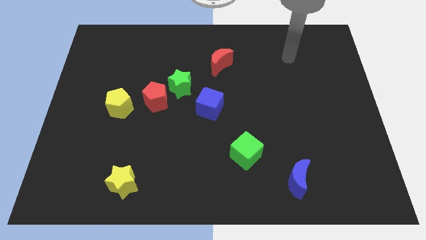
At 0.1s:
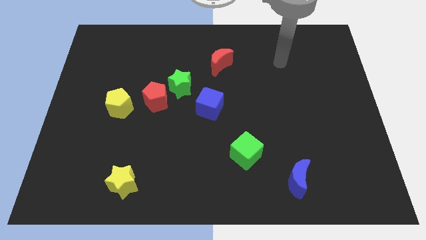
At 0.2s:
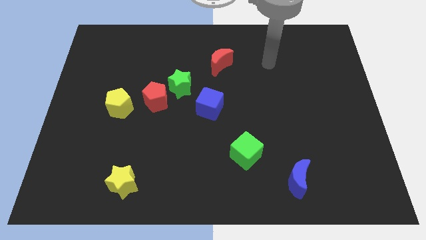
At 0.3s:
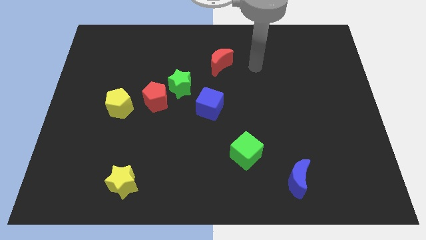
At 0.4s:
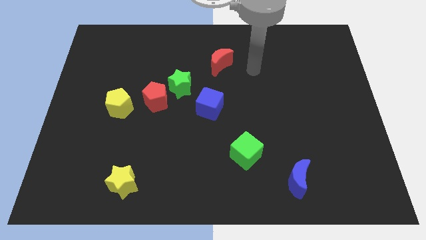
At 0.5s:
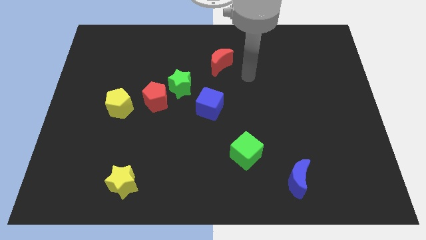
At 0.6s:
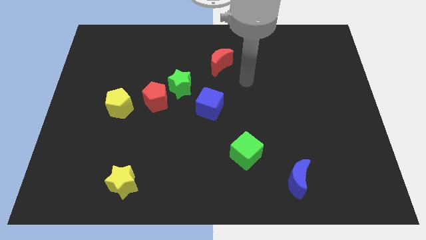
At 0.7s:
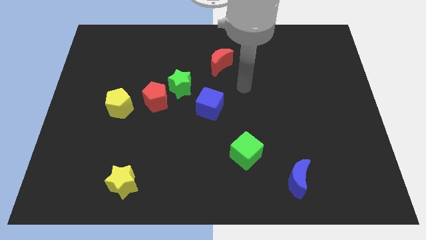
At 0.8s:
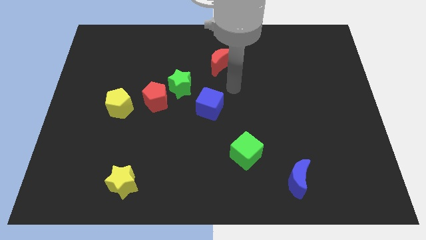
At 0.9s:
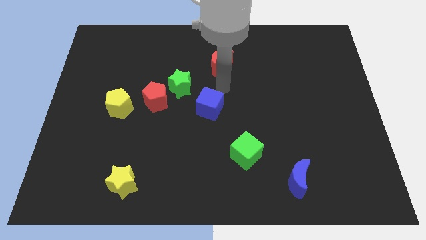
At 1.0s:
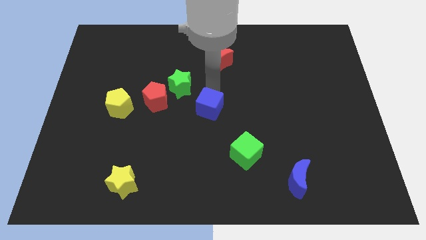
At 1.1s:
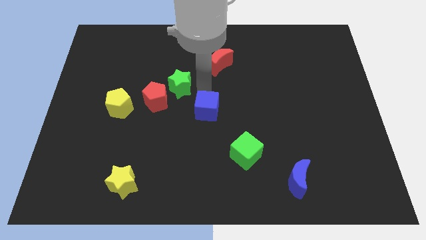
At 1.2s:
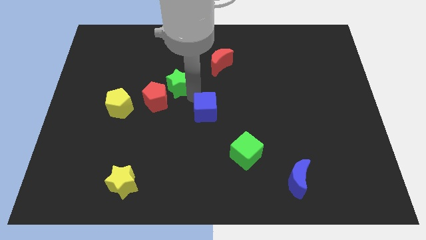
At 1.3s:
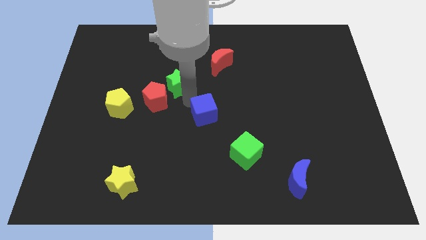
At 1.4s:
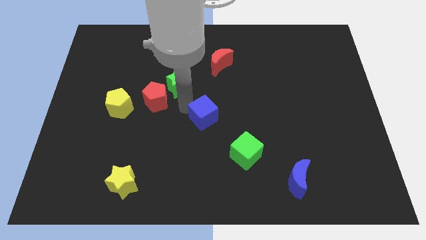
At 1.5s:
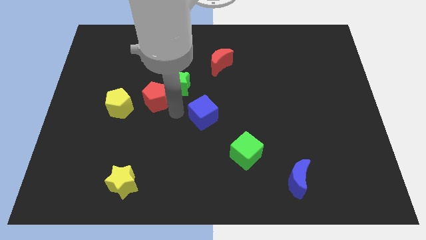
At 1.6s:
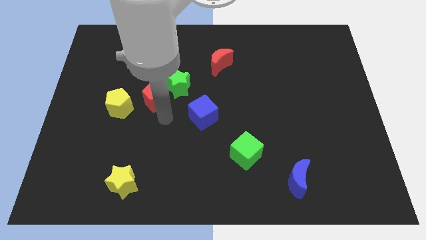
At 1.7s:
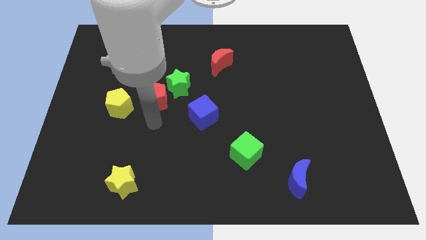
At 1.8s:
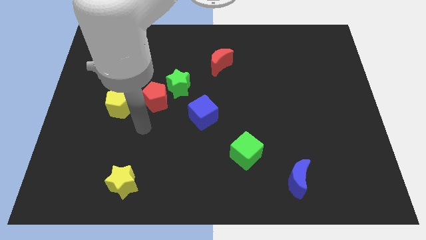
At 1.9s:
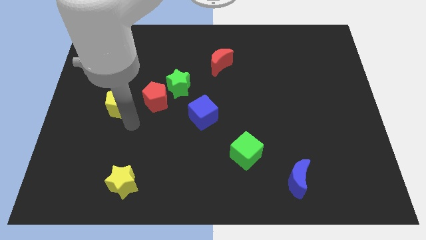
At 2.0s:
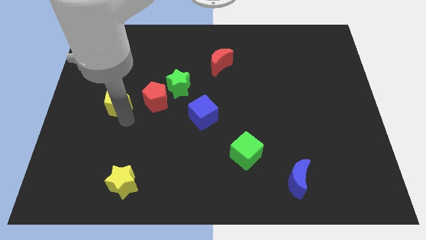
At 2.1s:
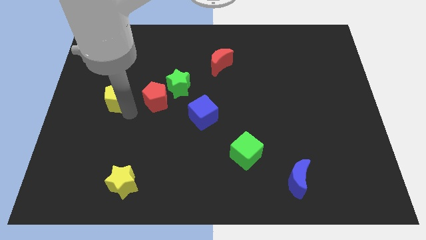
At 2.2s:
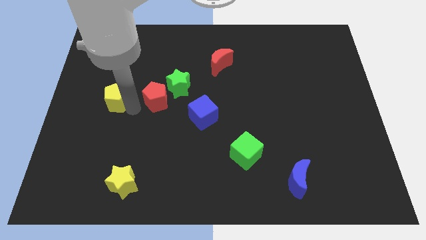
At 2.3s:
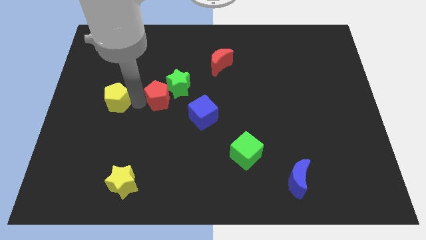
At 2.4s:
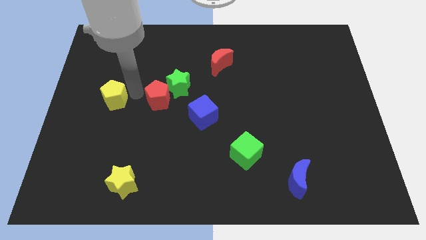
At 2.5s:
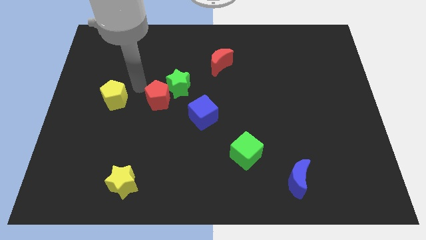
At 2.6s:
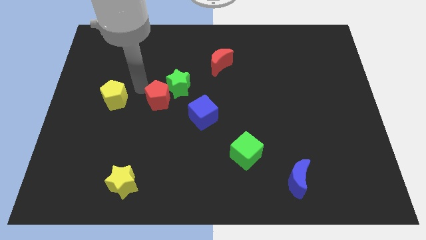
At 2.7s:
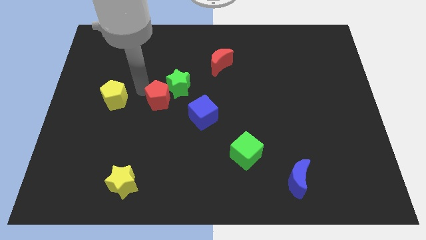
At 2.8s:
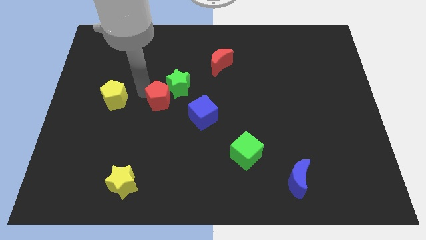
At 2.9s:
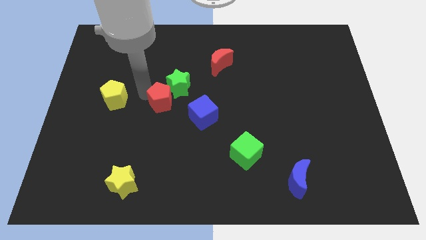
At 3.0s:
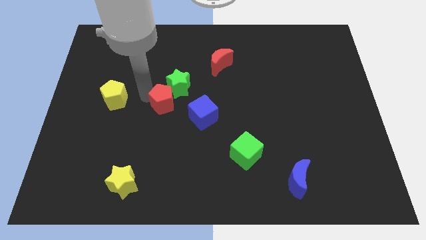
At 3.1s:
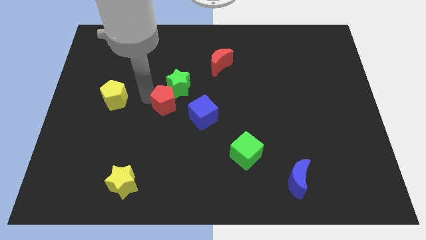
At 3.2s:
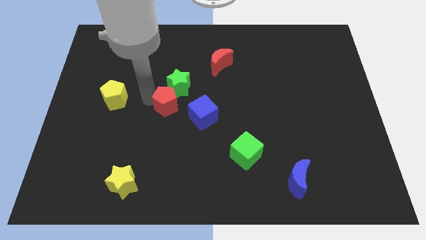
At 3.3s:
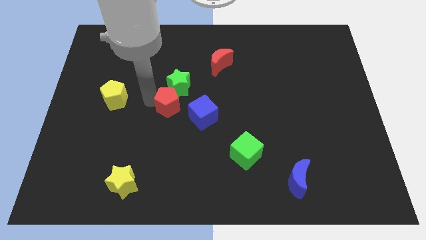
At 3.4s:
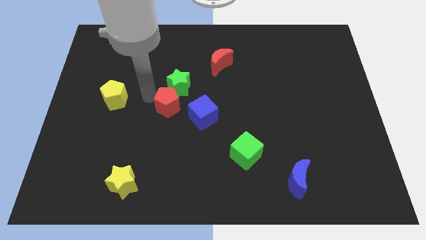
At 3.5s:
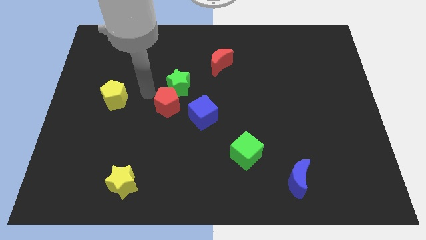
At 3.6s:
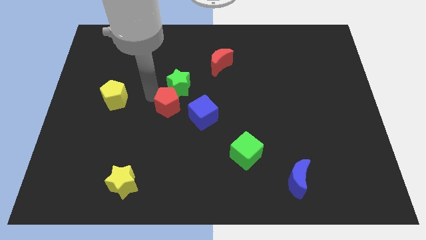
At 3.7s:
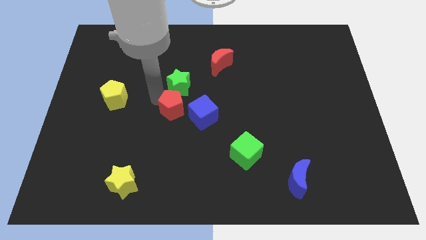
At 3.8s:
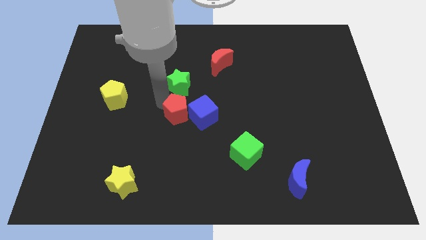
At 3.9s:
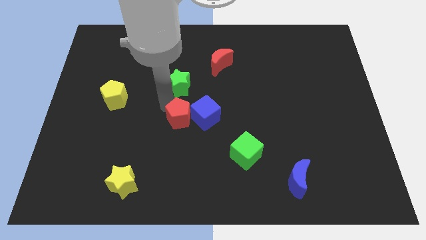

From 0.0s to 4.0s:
pull the red pentagon apart from the green star and yellow pentagon

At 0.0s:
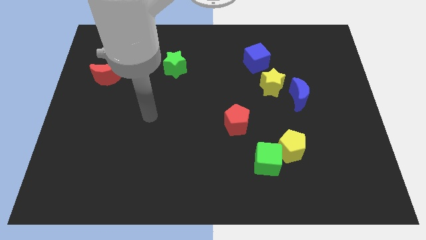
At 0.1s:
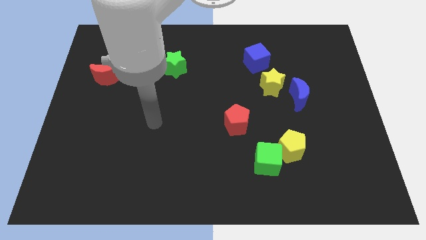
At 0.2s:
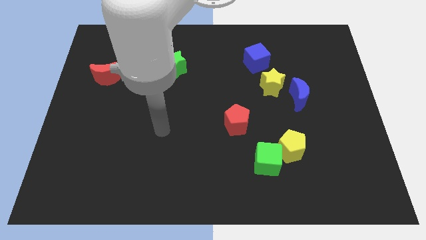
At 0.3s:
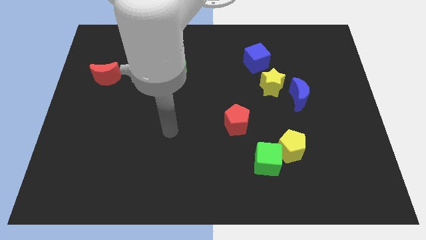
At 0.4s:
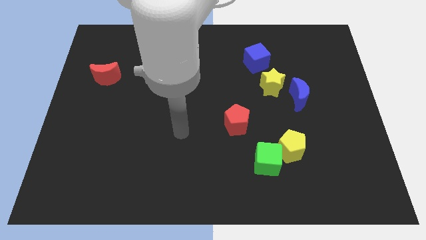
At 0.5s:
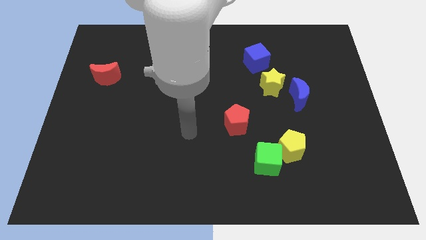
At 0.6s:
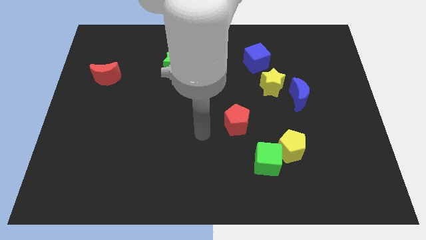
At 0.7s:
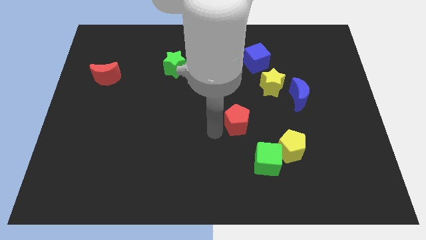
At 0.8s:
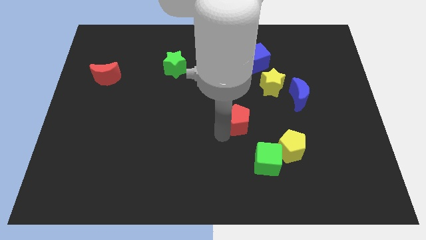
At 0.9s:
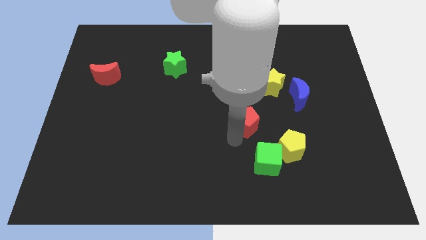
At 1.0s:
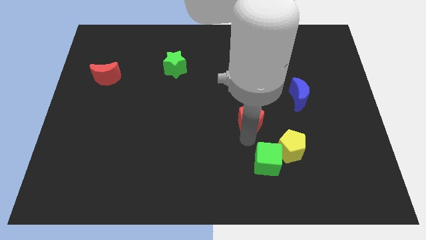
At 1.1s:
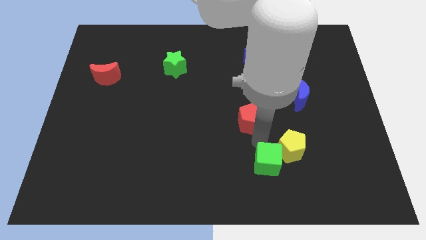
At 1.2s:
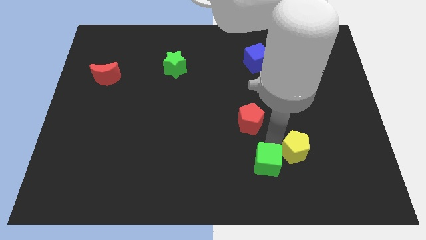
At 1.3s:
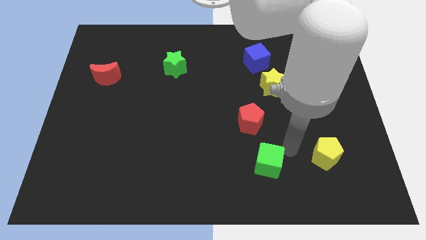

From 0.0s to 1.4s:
move the green cube away from the yellow pentagon

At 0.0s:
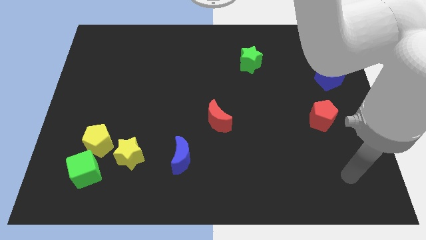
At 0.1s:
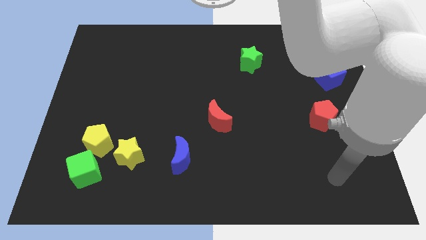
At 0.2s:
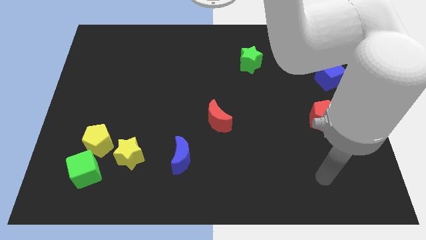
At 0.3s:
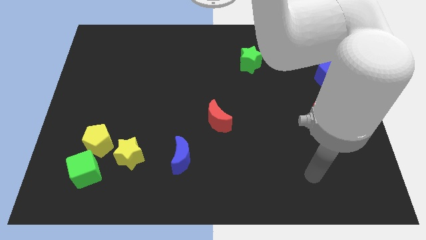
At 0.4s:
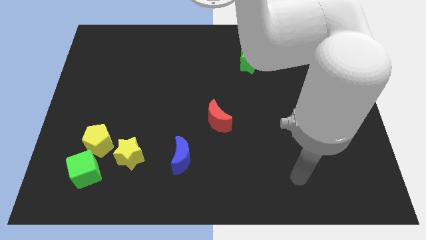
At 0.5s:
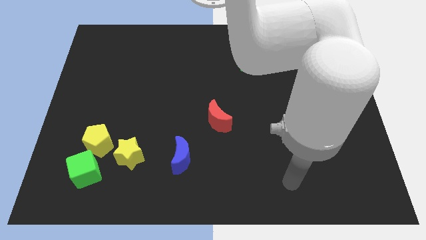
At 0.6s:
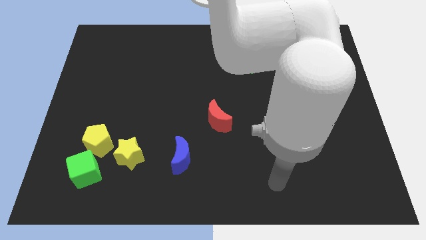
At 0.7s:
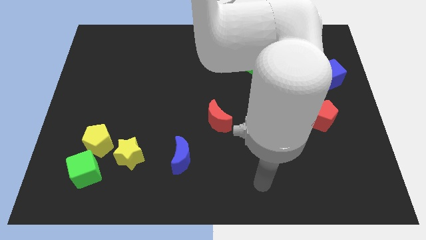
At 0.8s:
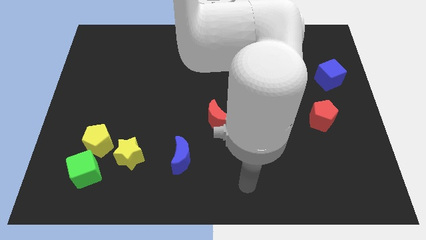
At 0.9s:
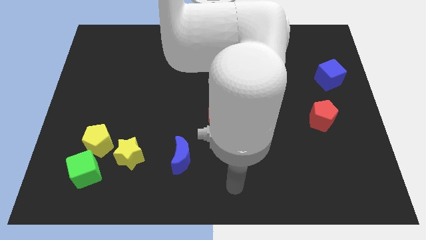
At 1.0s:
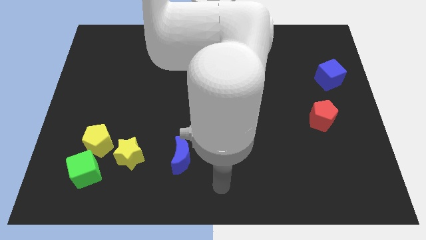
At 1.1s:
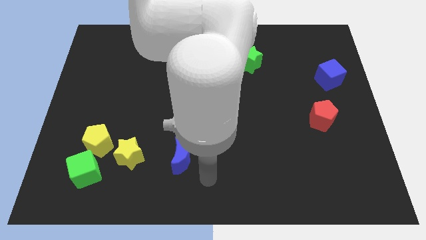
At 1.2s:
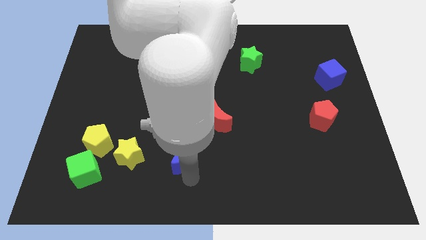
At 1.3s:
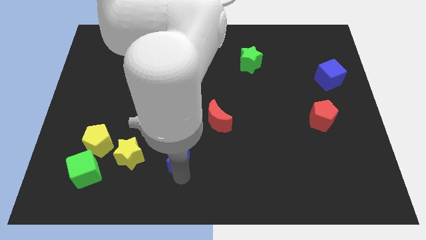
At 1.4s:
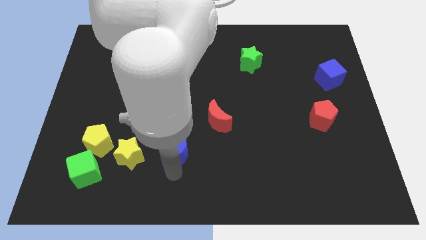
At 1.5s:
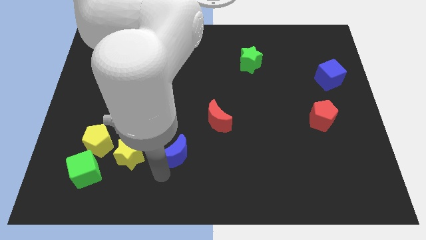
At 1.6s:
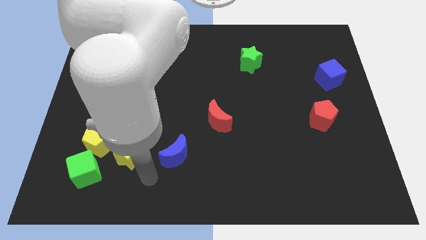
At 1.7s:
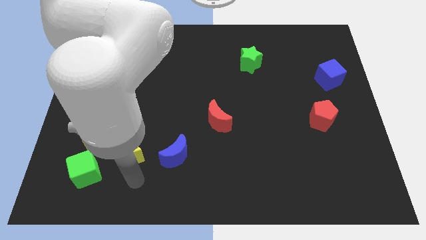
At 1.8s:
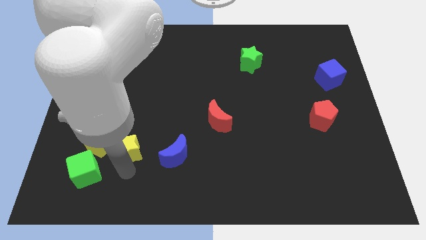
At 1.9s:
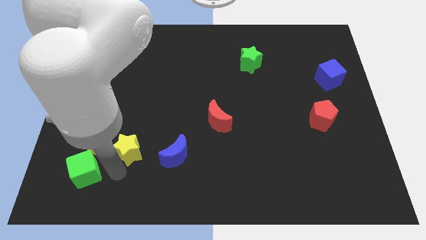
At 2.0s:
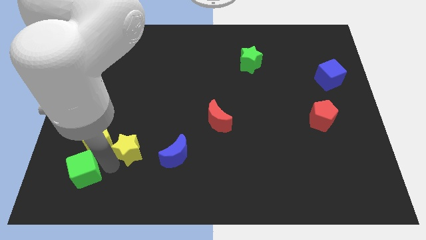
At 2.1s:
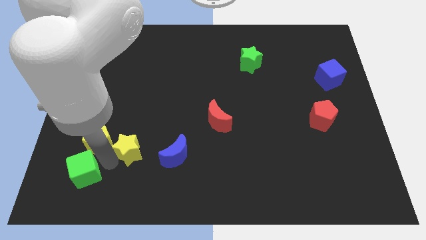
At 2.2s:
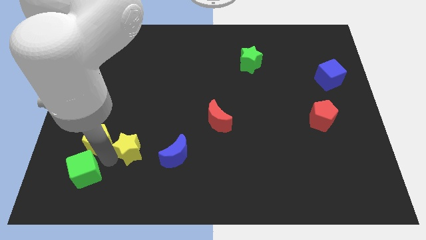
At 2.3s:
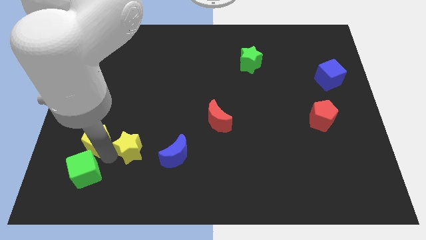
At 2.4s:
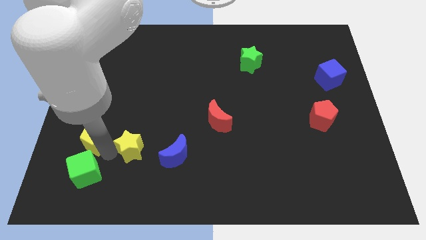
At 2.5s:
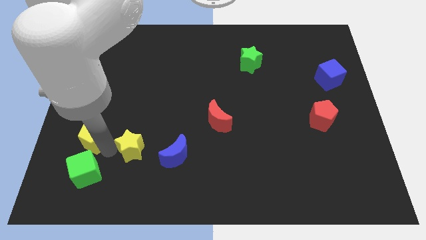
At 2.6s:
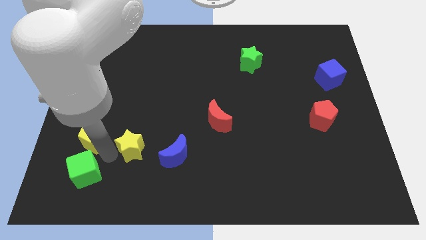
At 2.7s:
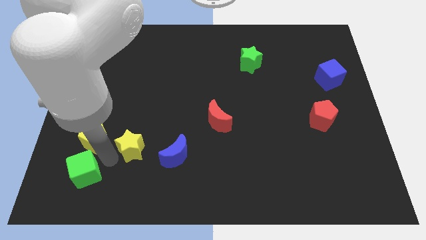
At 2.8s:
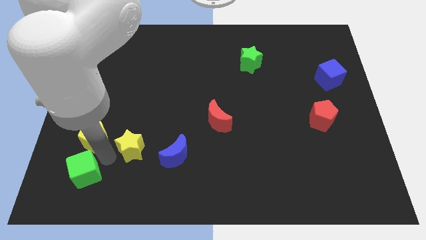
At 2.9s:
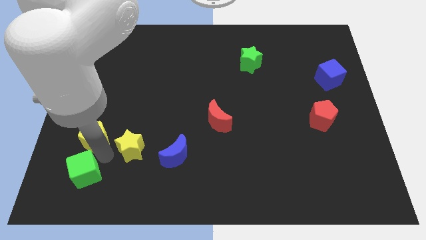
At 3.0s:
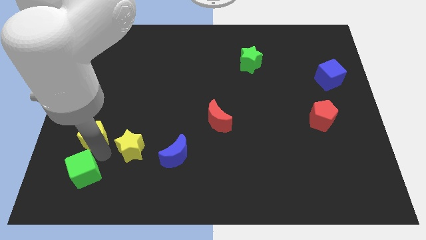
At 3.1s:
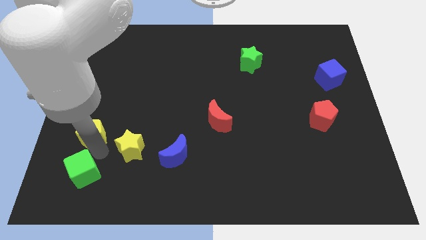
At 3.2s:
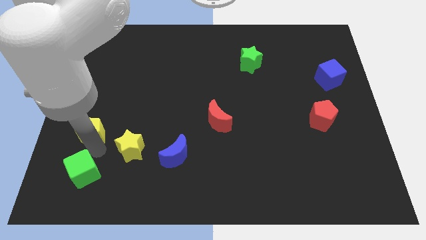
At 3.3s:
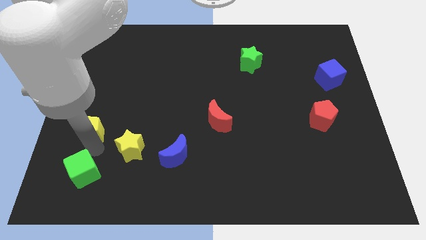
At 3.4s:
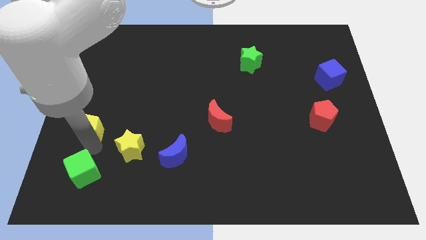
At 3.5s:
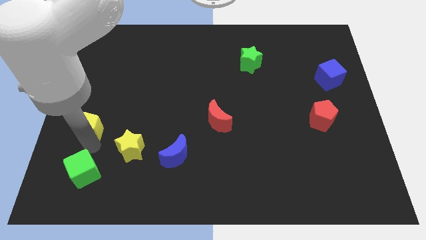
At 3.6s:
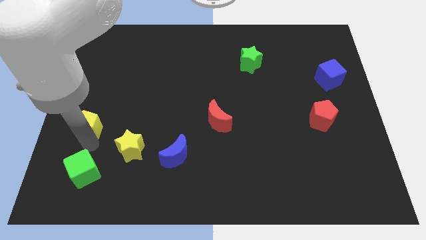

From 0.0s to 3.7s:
move the yellow pentagon away from the green cube and yellow star

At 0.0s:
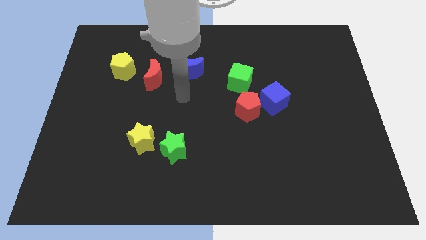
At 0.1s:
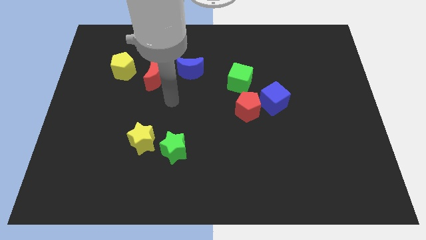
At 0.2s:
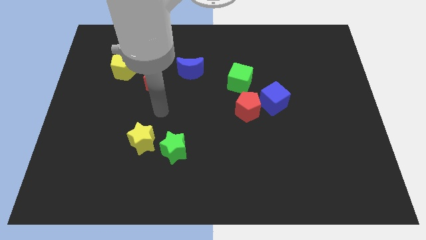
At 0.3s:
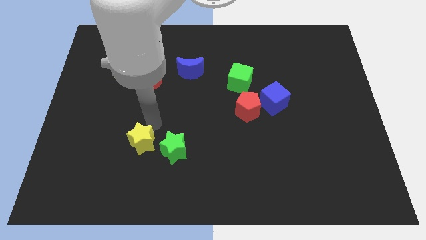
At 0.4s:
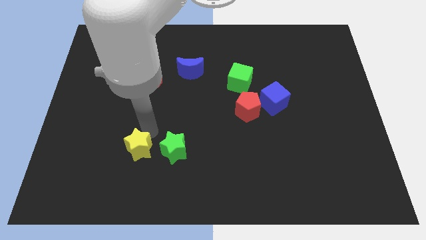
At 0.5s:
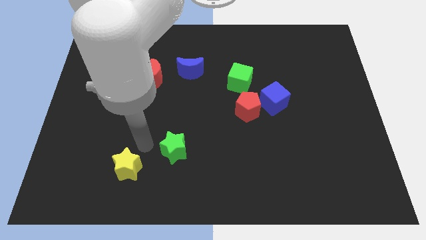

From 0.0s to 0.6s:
pull the green star apart from the yellow star
